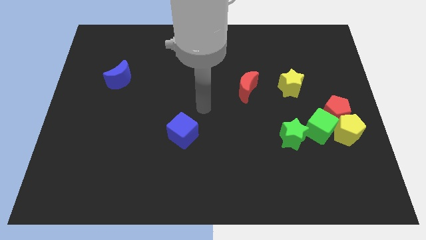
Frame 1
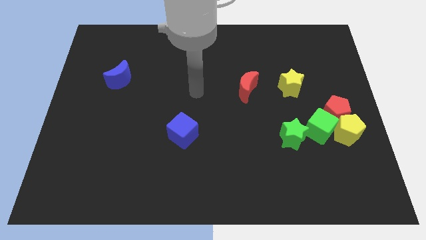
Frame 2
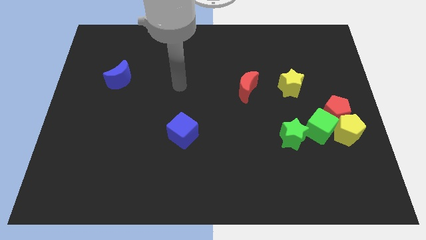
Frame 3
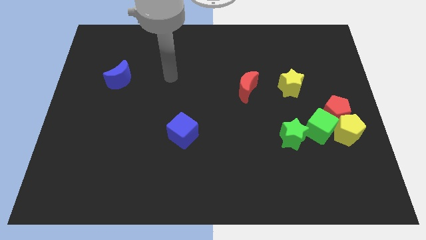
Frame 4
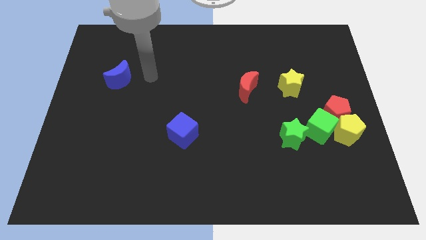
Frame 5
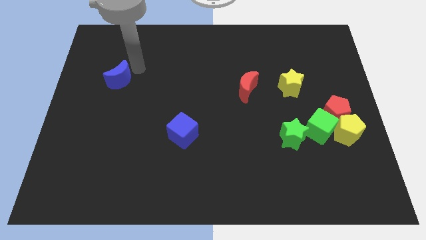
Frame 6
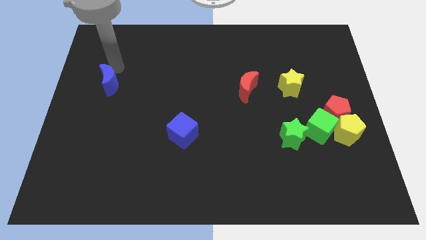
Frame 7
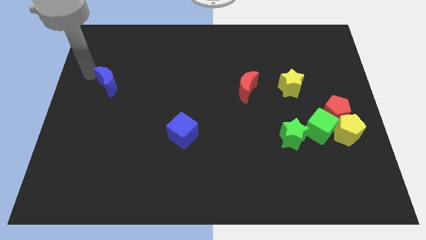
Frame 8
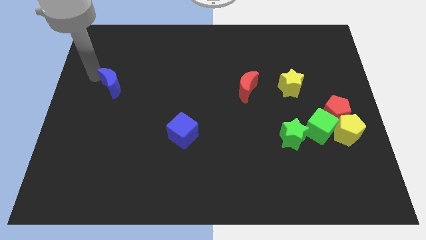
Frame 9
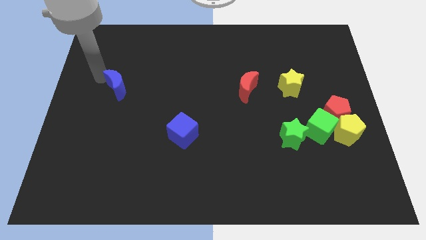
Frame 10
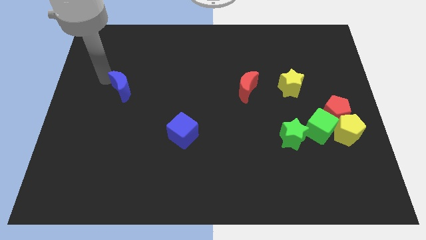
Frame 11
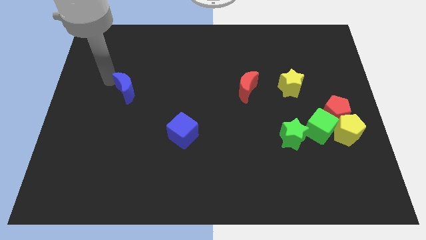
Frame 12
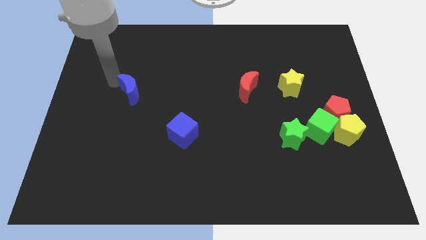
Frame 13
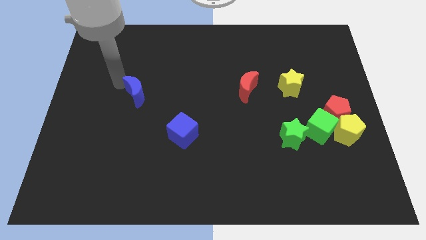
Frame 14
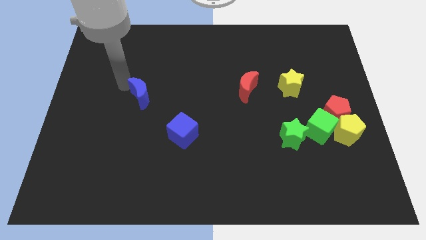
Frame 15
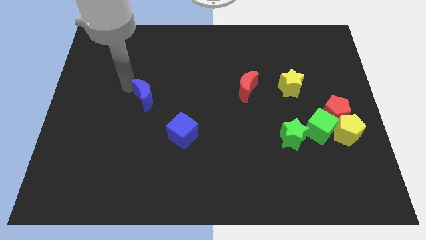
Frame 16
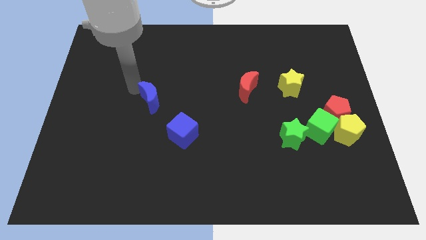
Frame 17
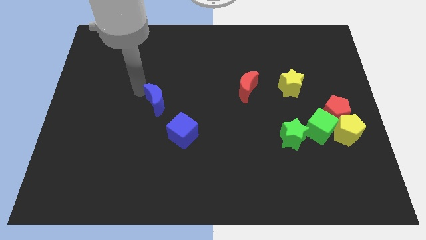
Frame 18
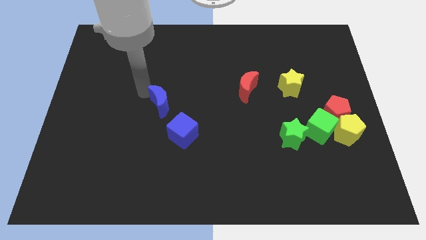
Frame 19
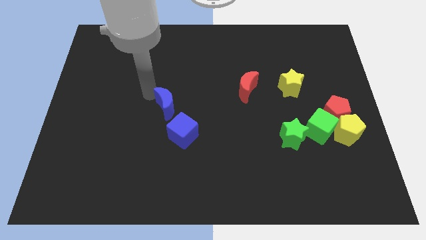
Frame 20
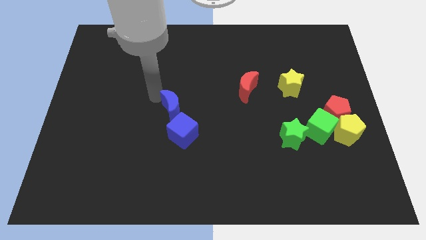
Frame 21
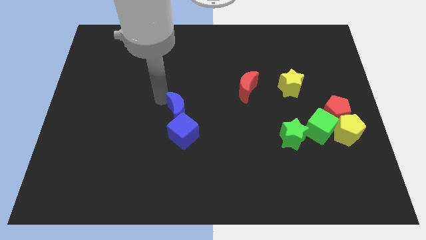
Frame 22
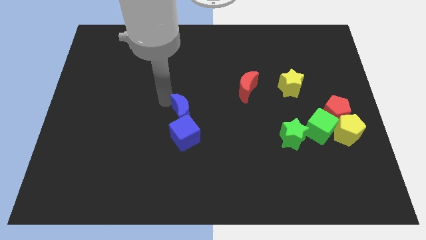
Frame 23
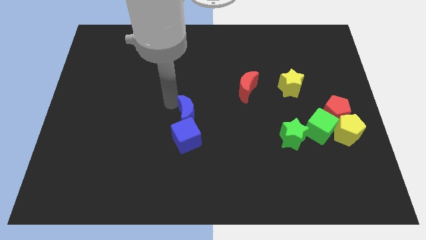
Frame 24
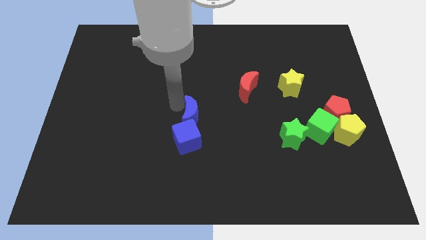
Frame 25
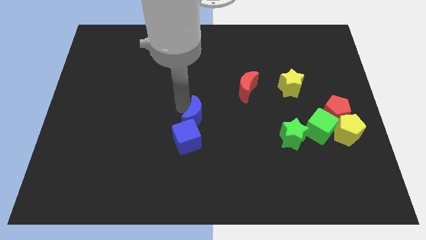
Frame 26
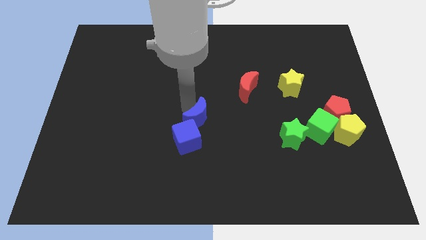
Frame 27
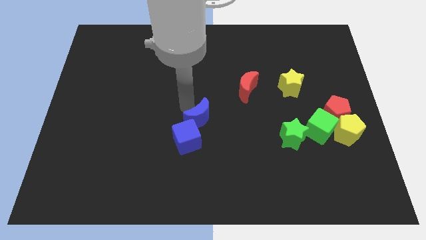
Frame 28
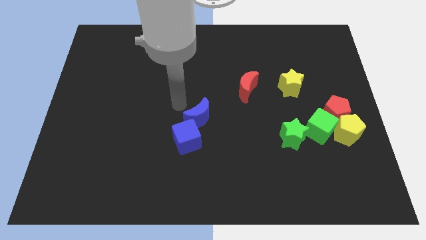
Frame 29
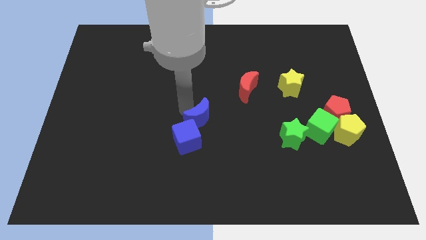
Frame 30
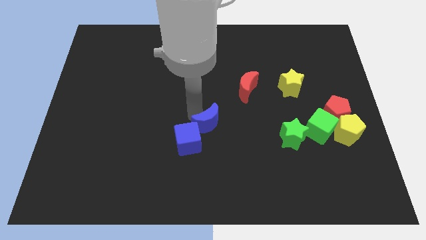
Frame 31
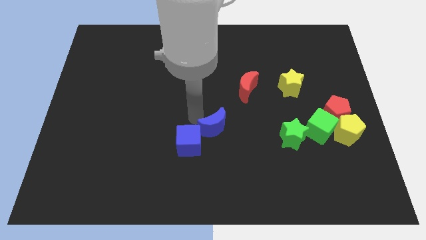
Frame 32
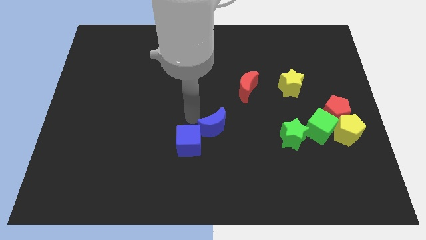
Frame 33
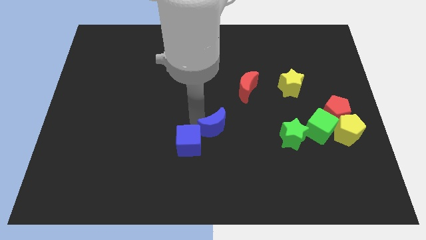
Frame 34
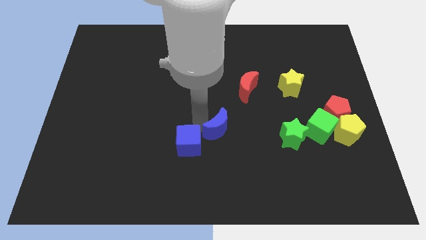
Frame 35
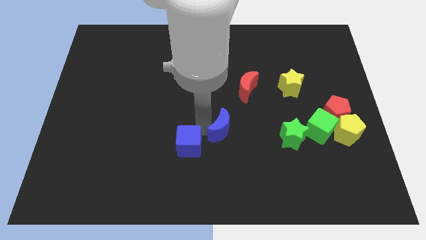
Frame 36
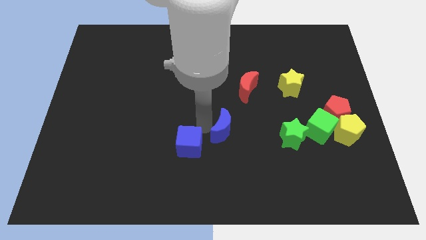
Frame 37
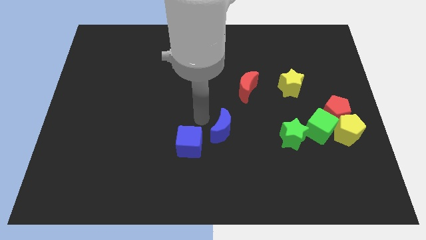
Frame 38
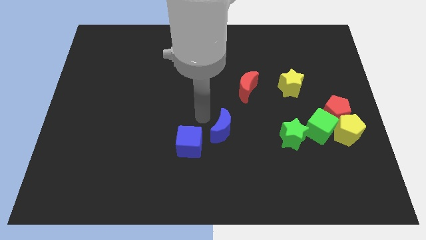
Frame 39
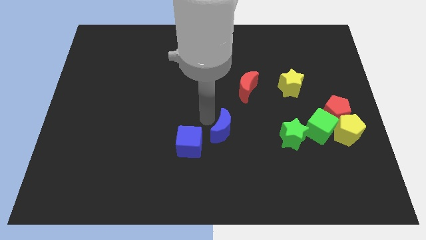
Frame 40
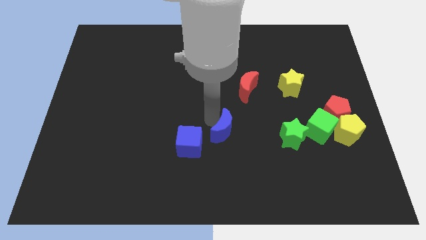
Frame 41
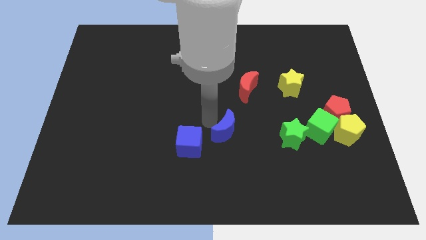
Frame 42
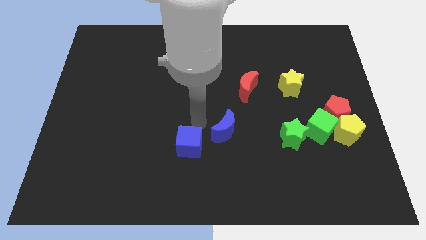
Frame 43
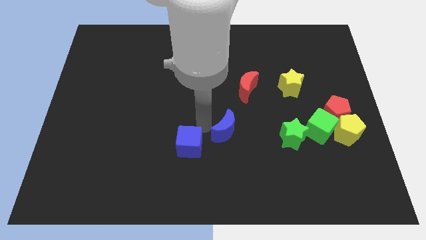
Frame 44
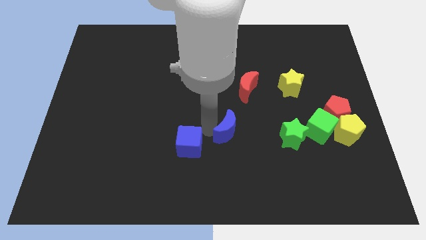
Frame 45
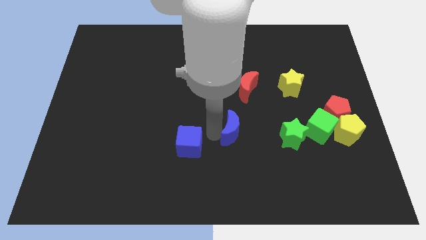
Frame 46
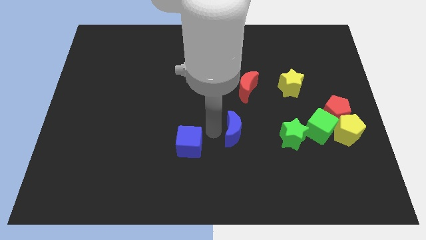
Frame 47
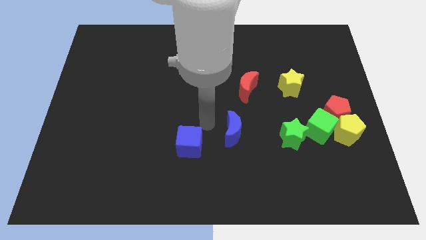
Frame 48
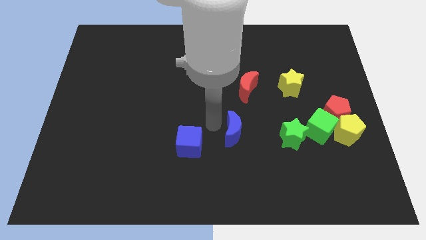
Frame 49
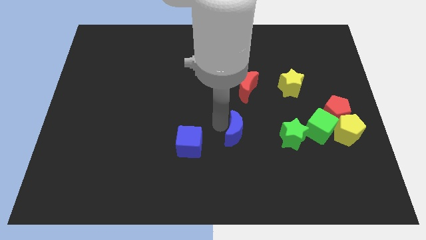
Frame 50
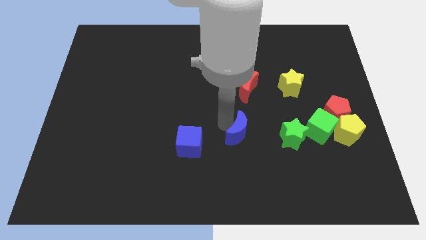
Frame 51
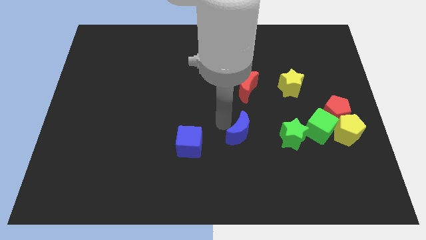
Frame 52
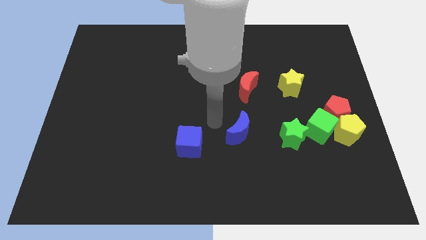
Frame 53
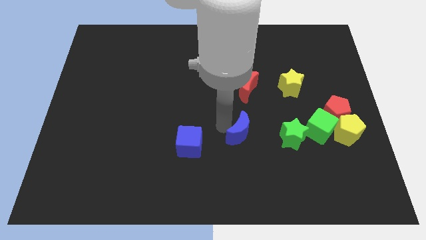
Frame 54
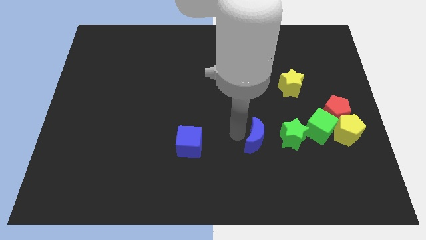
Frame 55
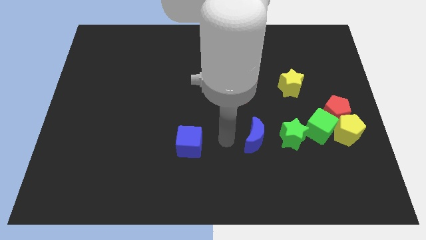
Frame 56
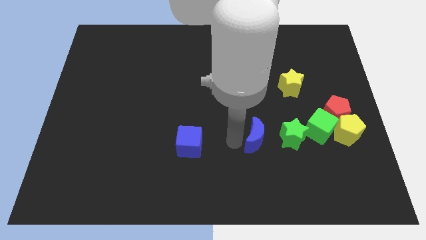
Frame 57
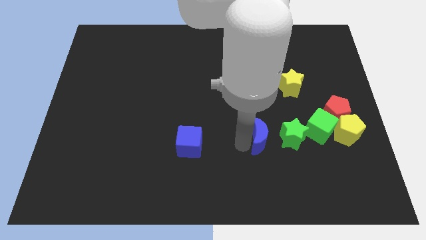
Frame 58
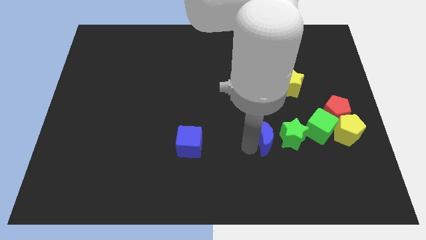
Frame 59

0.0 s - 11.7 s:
slide the blue moon close to the green star

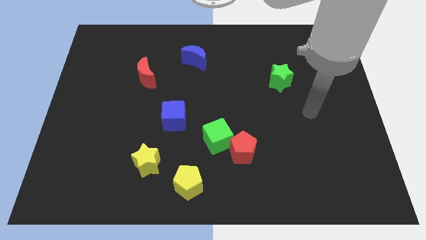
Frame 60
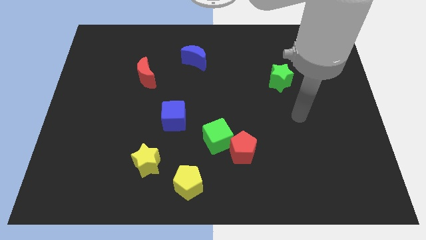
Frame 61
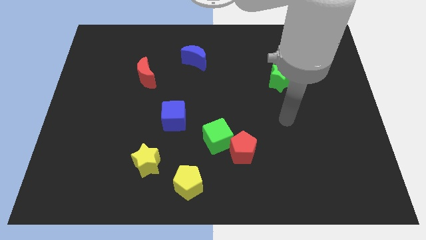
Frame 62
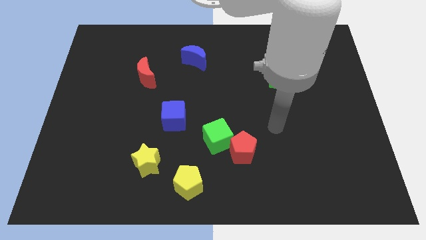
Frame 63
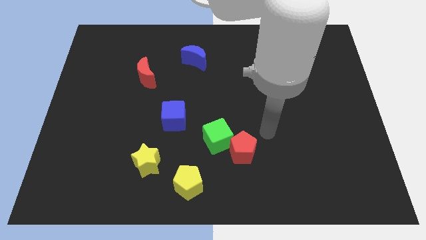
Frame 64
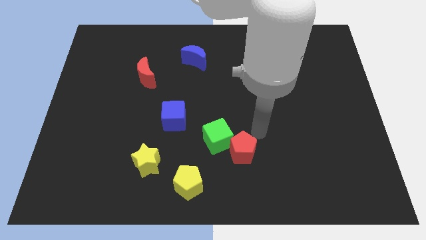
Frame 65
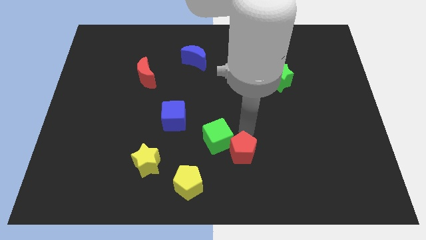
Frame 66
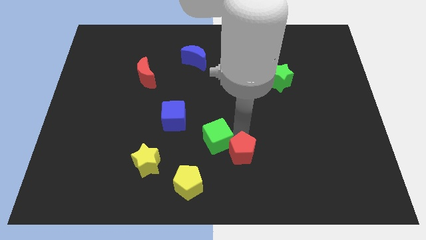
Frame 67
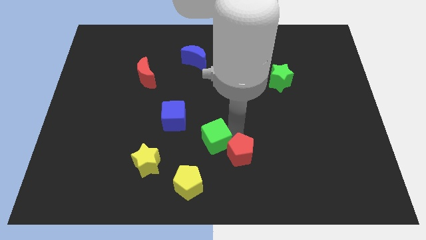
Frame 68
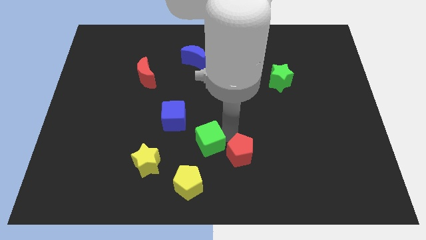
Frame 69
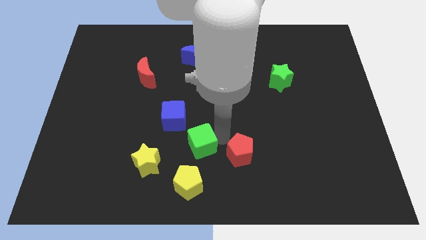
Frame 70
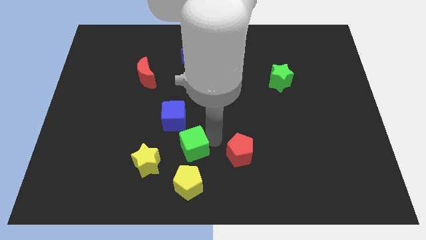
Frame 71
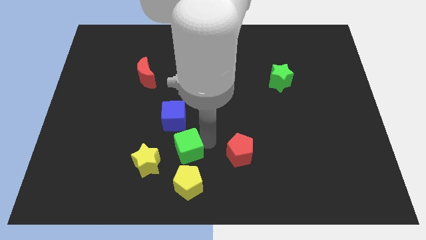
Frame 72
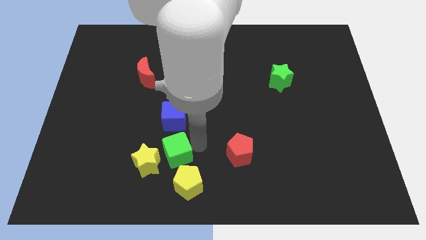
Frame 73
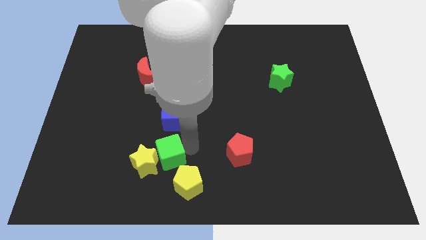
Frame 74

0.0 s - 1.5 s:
push the green cube close to the yellow star
